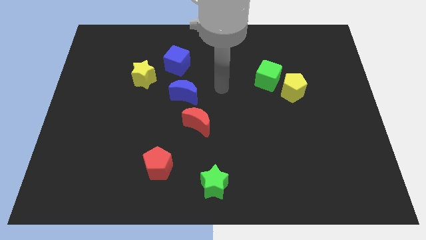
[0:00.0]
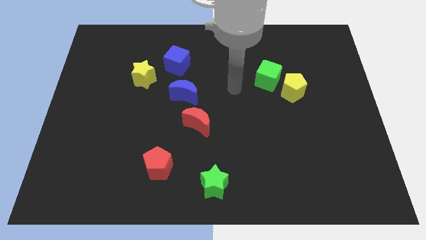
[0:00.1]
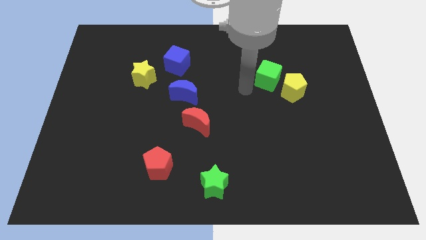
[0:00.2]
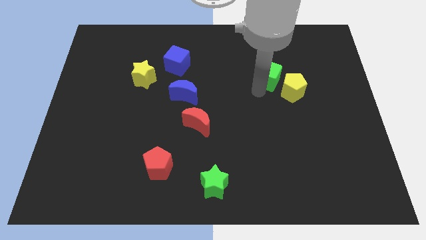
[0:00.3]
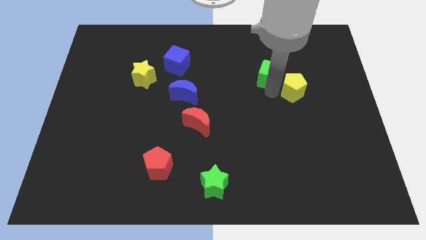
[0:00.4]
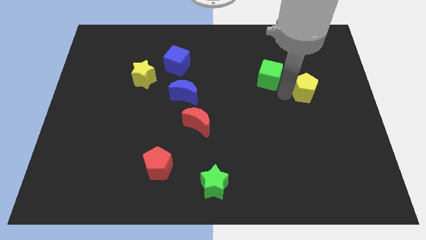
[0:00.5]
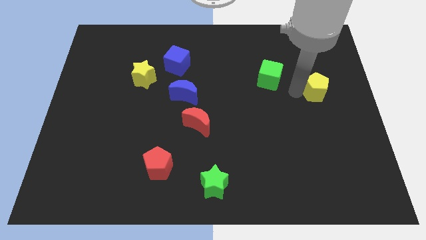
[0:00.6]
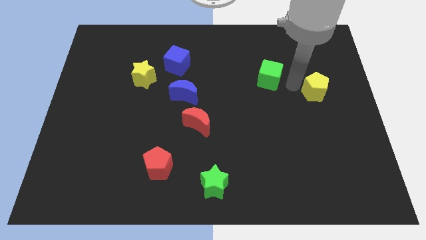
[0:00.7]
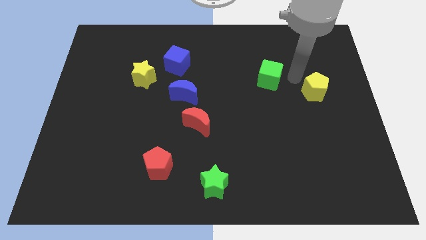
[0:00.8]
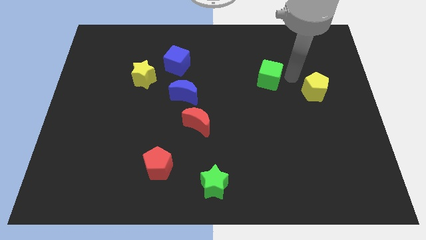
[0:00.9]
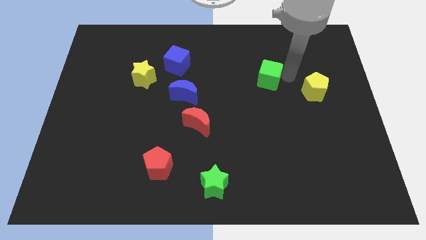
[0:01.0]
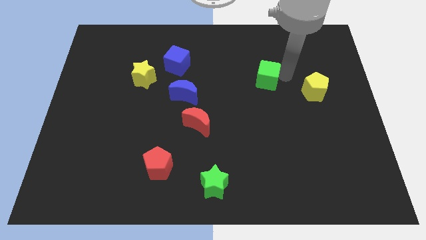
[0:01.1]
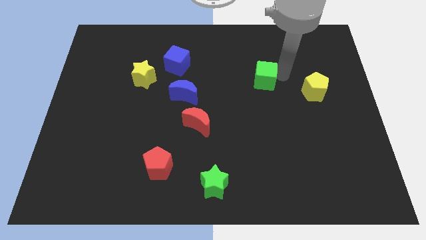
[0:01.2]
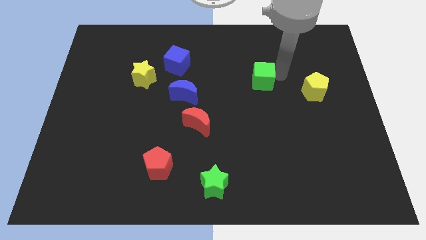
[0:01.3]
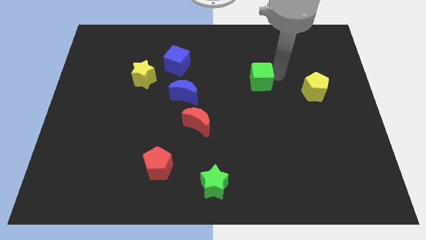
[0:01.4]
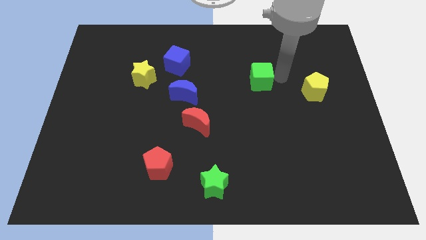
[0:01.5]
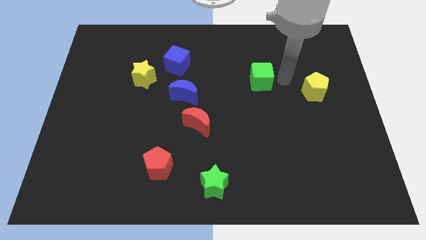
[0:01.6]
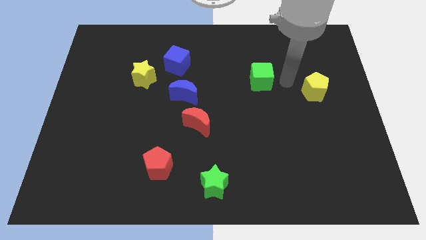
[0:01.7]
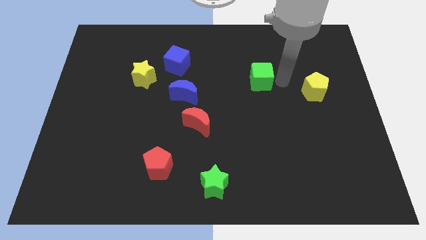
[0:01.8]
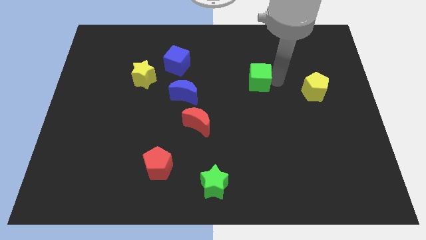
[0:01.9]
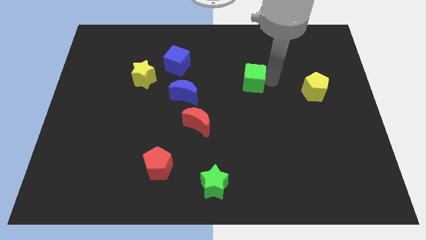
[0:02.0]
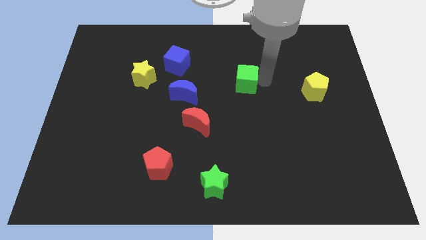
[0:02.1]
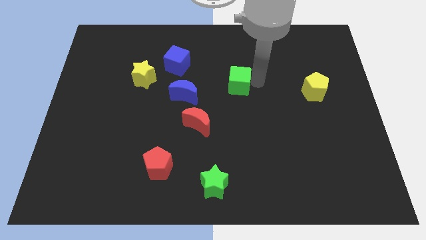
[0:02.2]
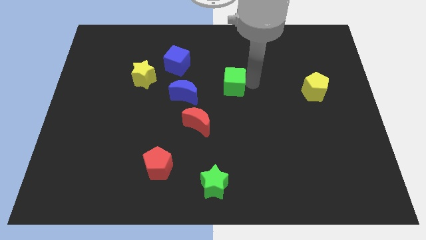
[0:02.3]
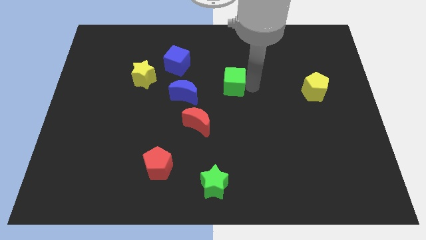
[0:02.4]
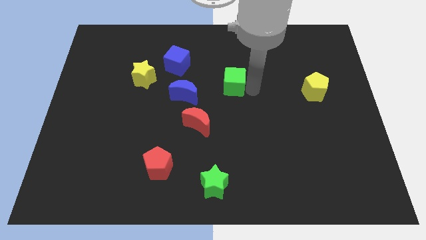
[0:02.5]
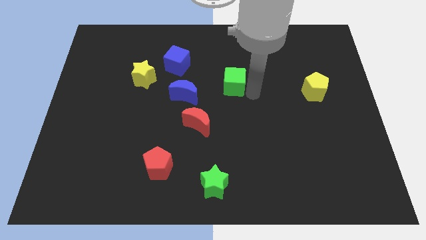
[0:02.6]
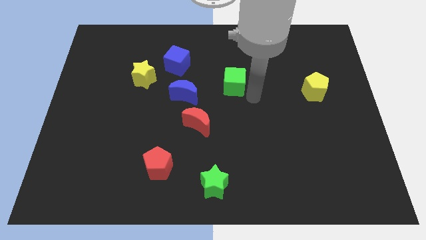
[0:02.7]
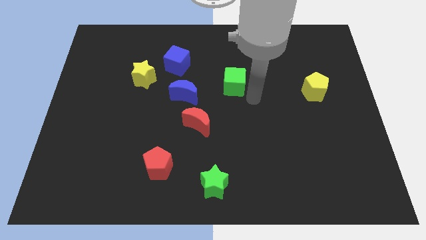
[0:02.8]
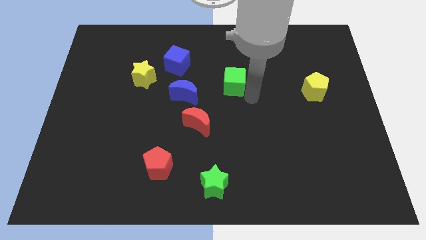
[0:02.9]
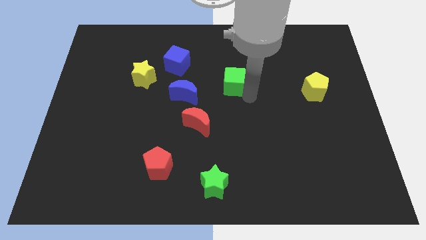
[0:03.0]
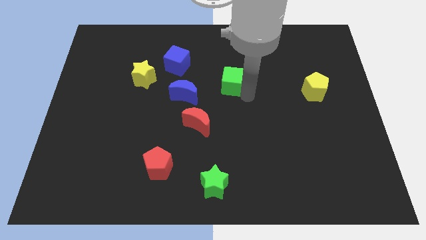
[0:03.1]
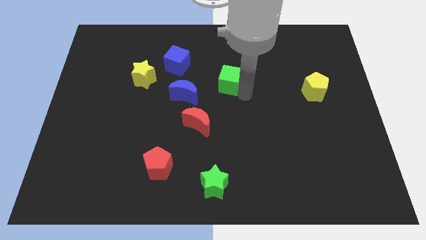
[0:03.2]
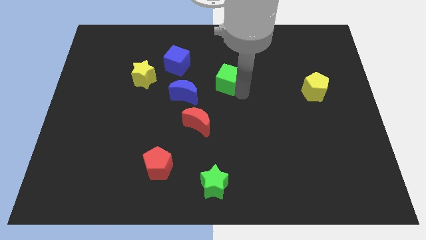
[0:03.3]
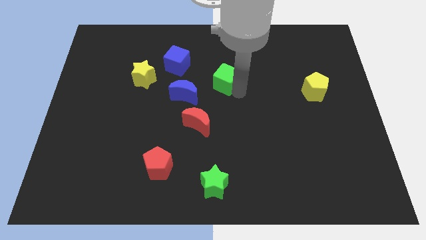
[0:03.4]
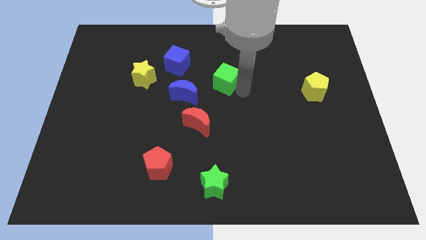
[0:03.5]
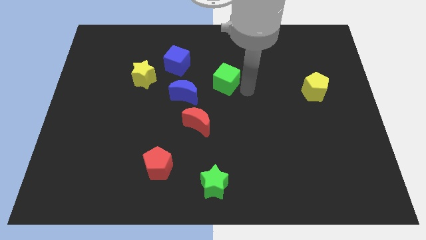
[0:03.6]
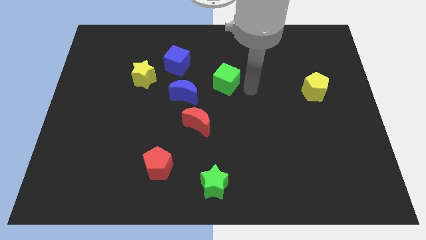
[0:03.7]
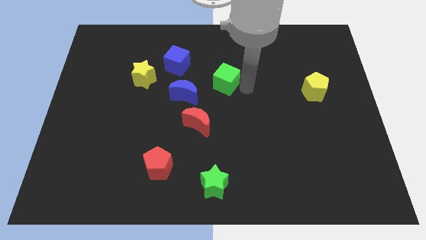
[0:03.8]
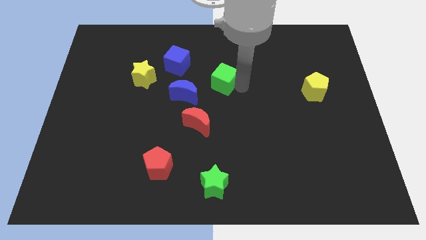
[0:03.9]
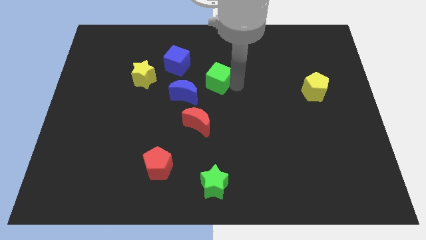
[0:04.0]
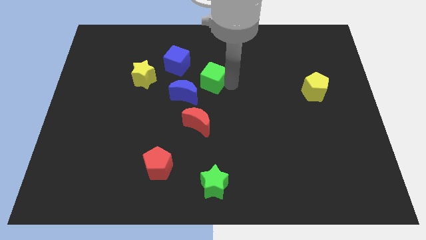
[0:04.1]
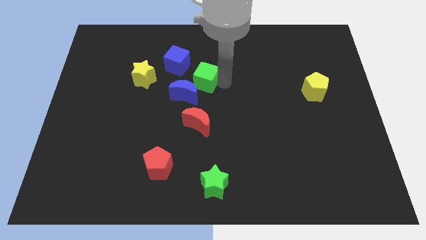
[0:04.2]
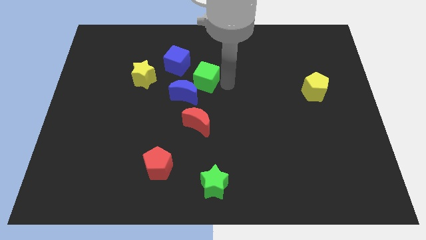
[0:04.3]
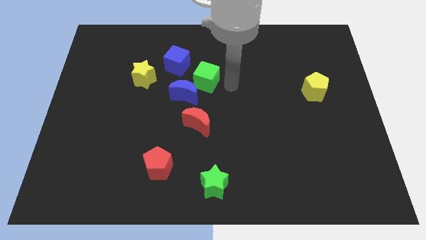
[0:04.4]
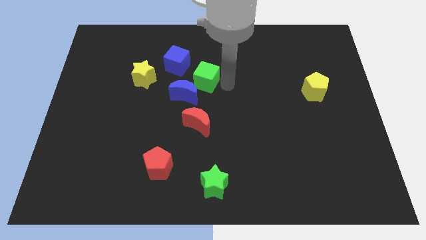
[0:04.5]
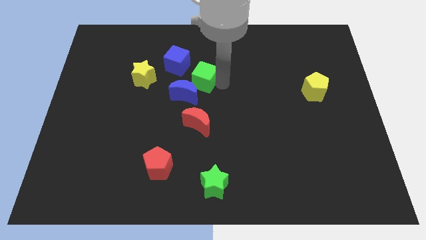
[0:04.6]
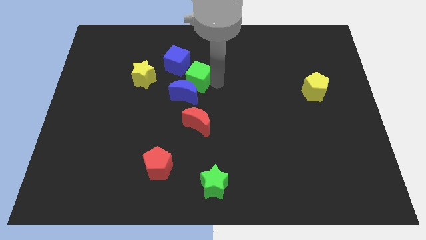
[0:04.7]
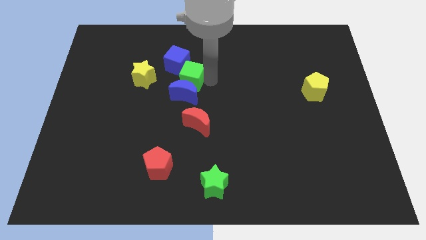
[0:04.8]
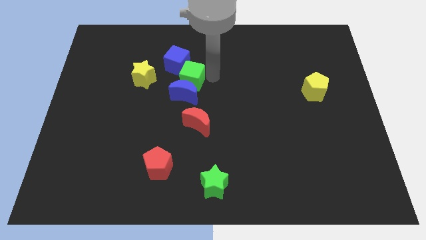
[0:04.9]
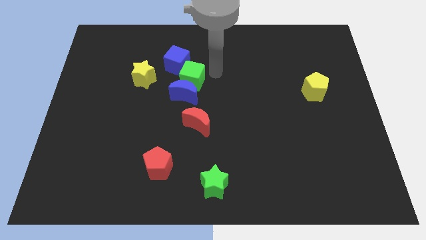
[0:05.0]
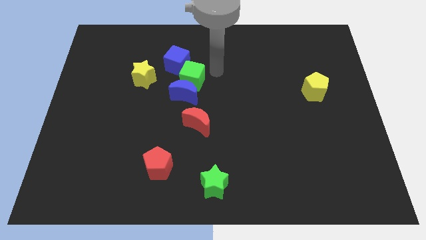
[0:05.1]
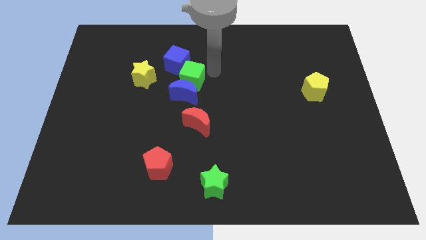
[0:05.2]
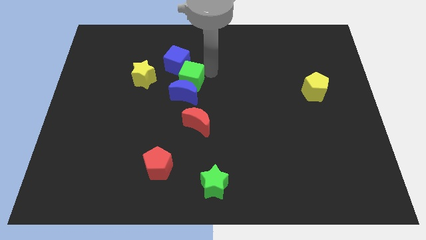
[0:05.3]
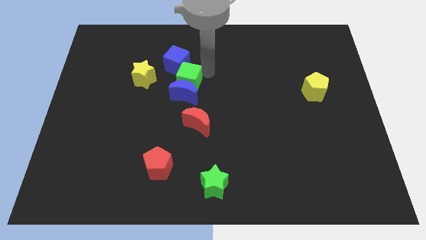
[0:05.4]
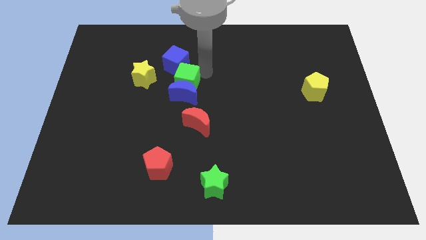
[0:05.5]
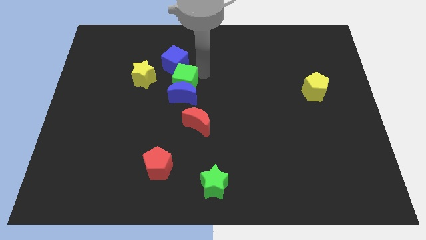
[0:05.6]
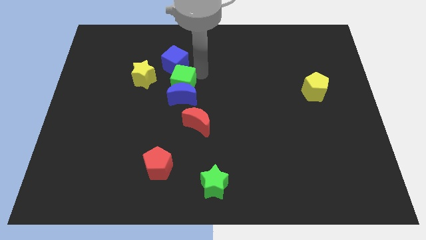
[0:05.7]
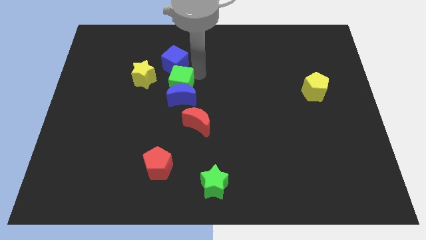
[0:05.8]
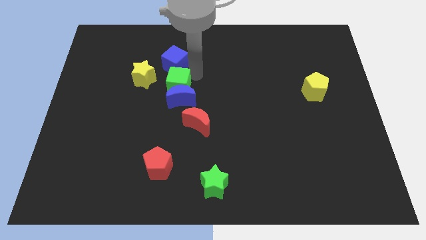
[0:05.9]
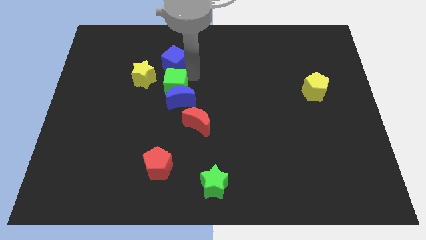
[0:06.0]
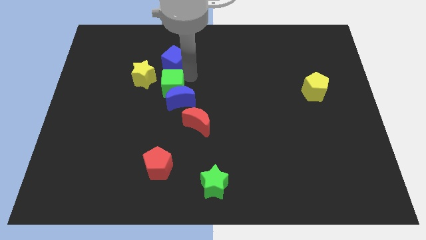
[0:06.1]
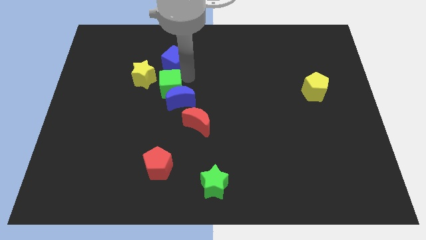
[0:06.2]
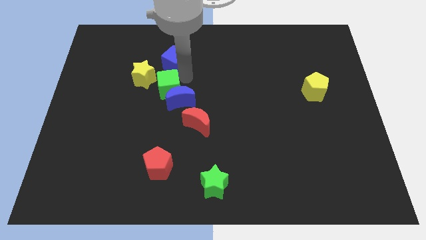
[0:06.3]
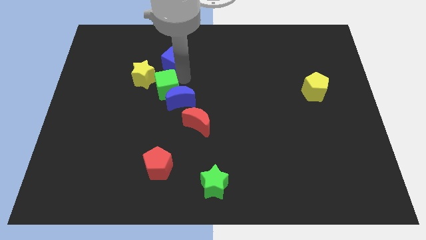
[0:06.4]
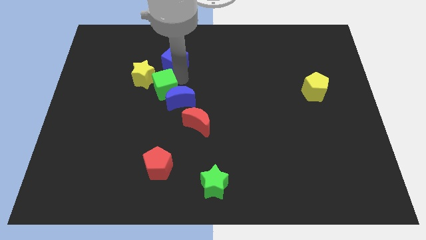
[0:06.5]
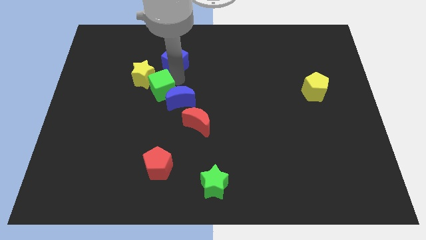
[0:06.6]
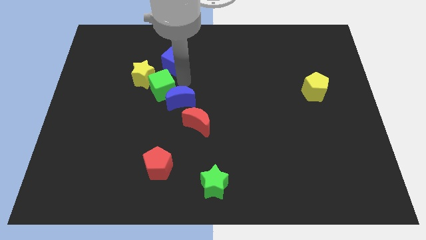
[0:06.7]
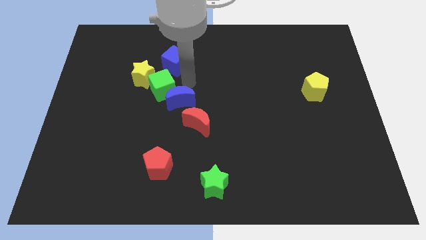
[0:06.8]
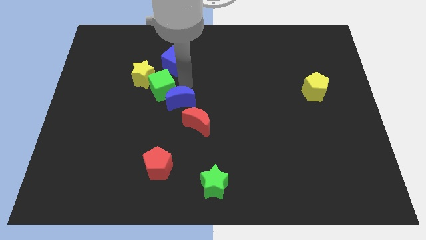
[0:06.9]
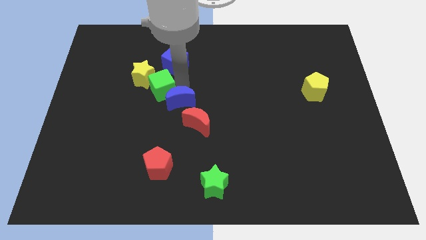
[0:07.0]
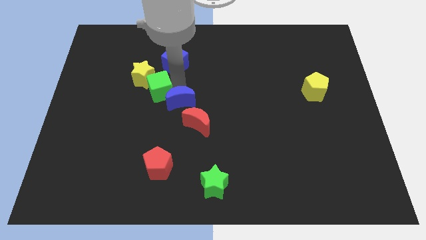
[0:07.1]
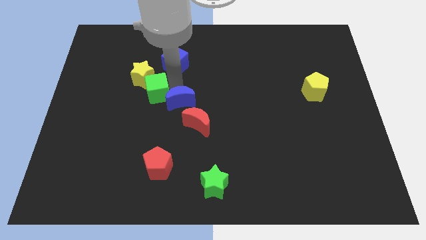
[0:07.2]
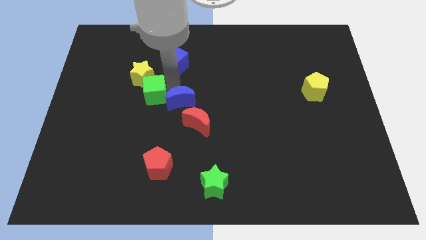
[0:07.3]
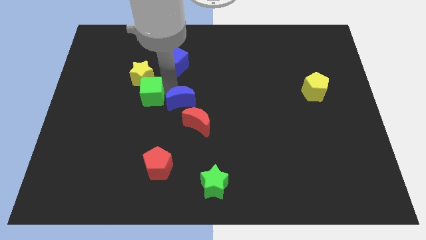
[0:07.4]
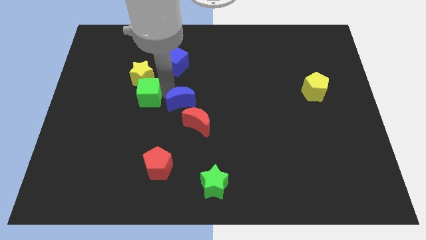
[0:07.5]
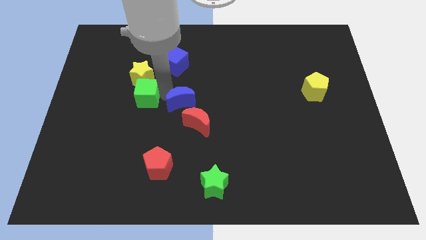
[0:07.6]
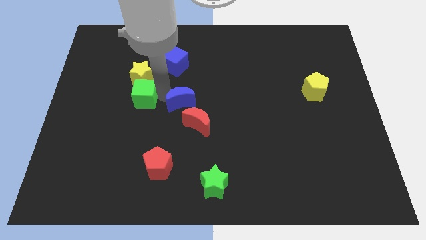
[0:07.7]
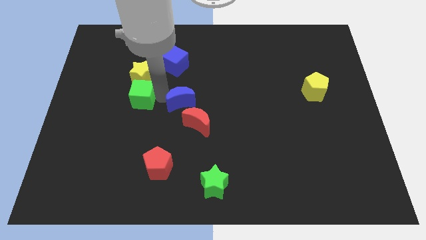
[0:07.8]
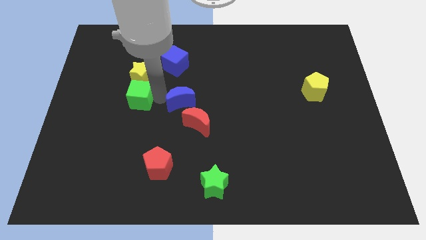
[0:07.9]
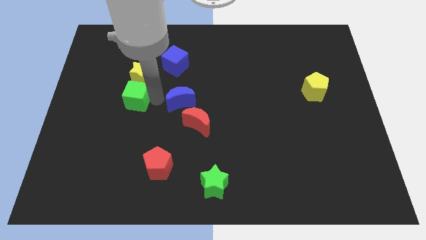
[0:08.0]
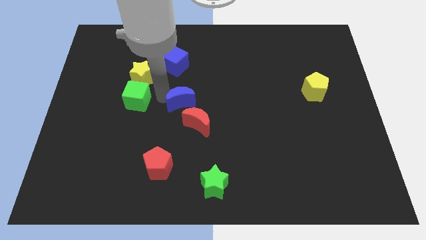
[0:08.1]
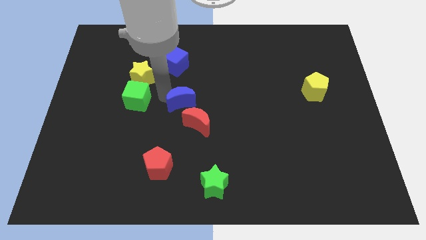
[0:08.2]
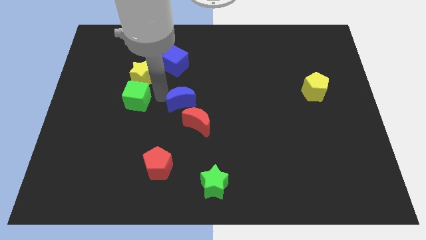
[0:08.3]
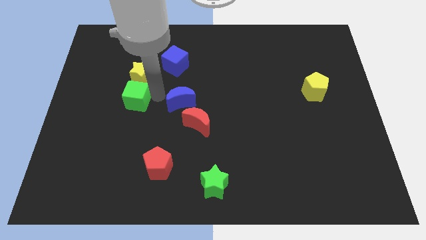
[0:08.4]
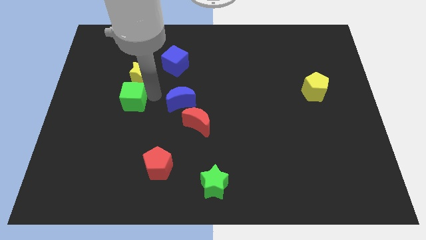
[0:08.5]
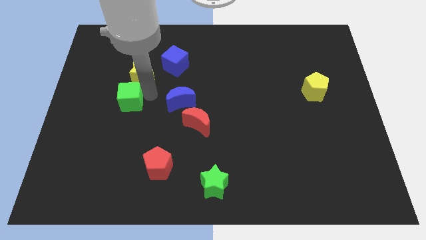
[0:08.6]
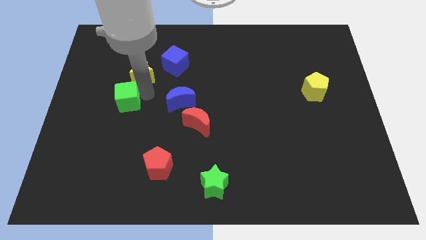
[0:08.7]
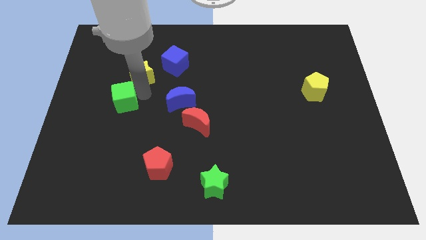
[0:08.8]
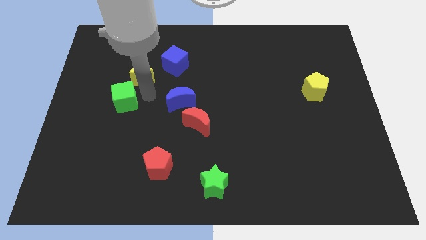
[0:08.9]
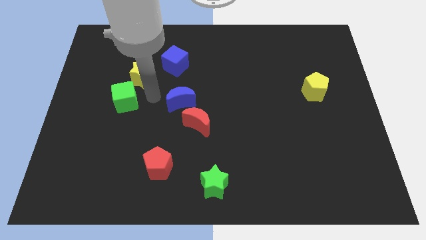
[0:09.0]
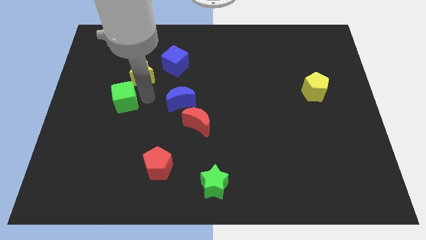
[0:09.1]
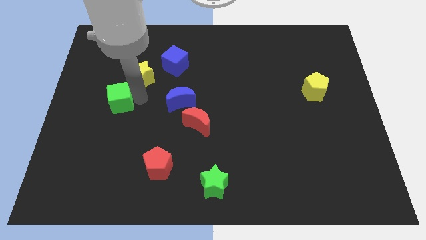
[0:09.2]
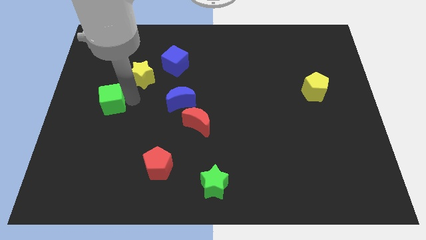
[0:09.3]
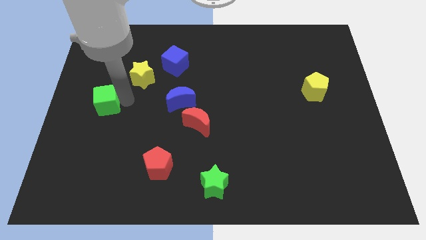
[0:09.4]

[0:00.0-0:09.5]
slide the green cube to the left side of the board
